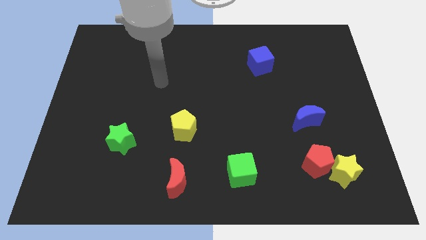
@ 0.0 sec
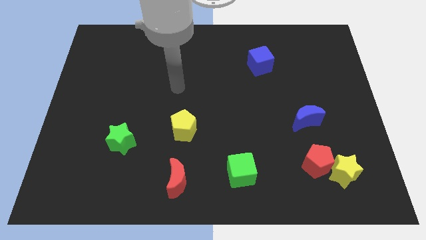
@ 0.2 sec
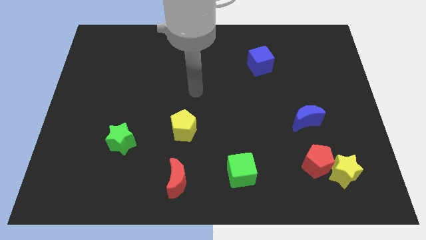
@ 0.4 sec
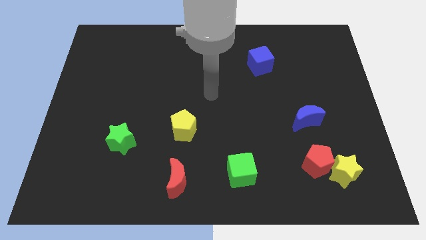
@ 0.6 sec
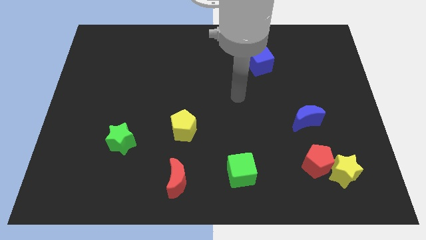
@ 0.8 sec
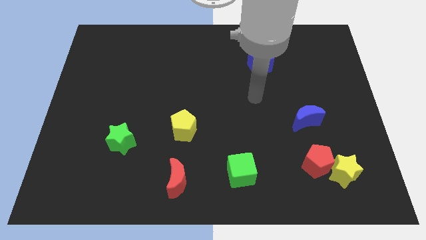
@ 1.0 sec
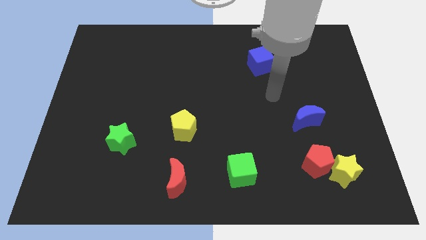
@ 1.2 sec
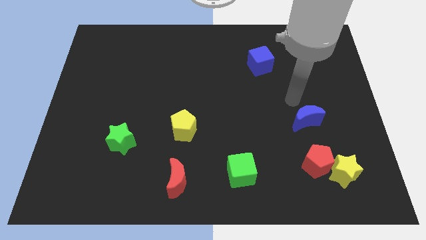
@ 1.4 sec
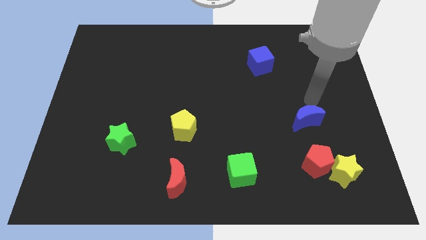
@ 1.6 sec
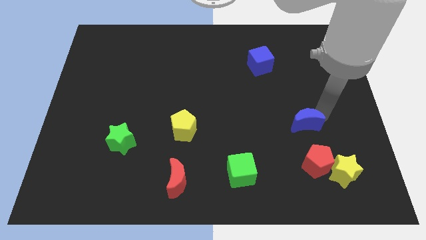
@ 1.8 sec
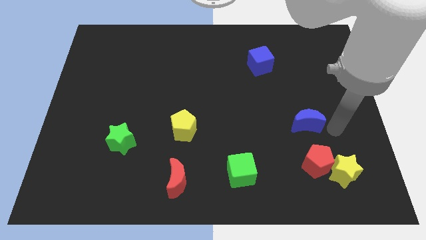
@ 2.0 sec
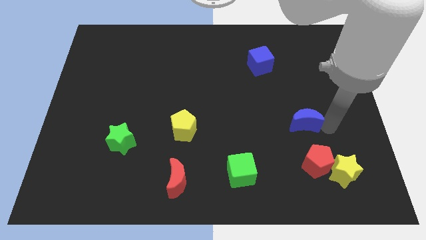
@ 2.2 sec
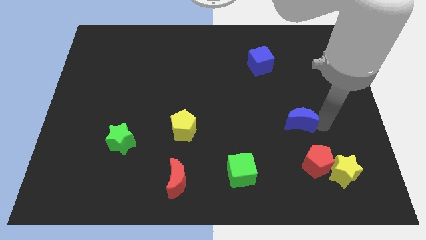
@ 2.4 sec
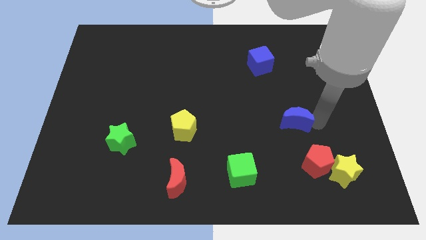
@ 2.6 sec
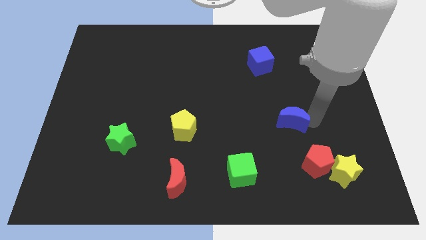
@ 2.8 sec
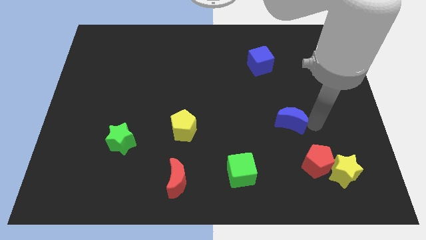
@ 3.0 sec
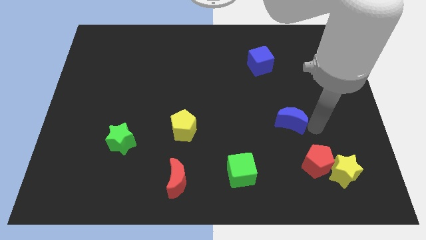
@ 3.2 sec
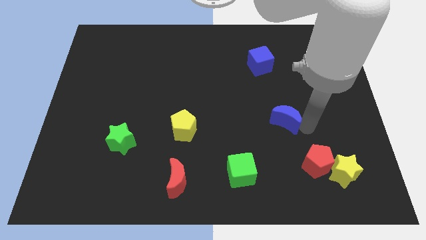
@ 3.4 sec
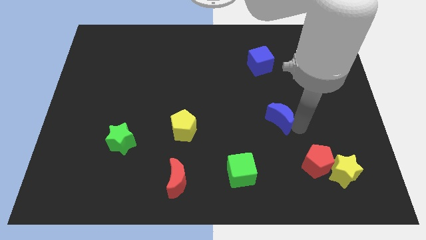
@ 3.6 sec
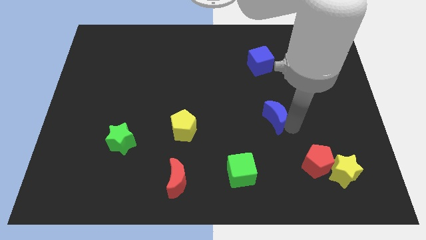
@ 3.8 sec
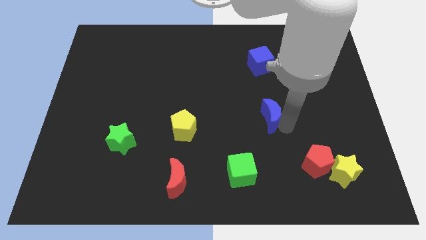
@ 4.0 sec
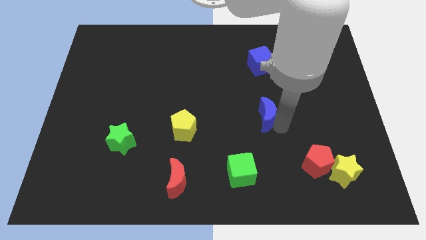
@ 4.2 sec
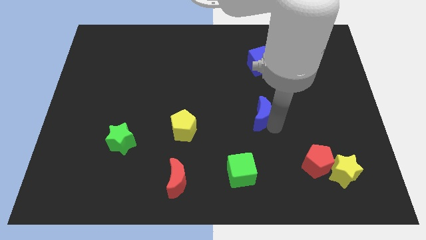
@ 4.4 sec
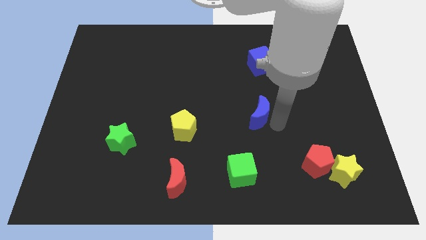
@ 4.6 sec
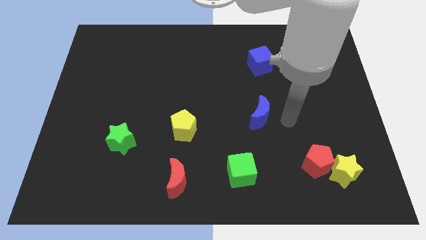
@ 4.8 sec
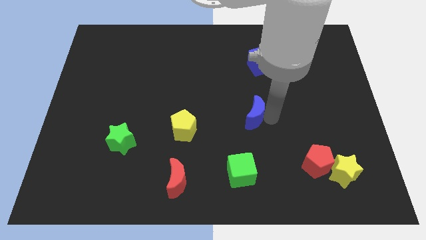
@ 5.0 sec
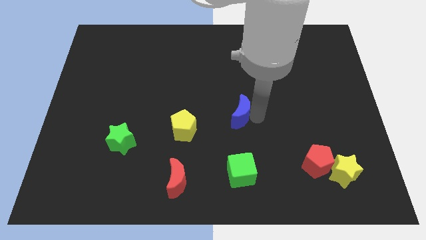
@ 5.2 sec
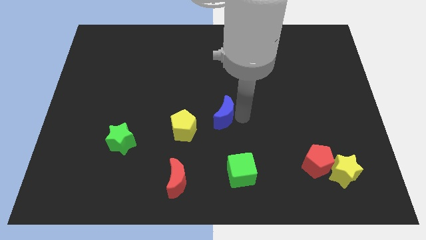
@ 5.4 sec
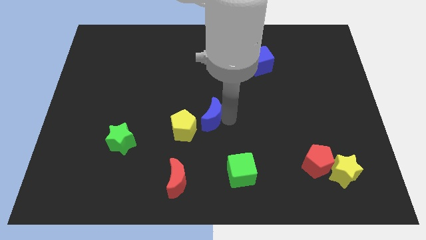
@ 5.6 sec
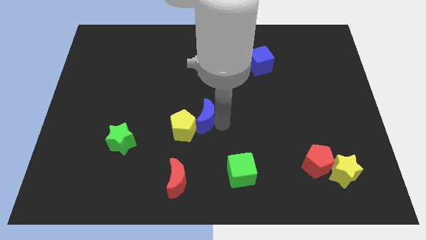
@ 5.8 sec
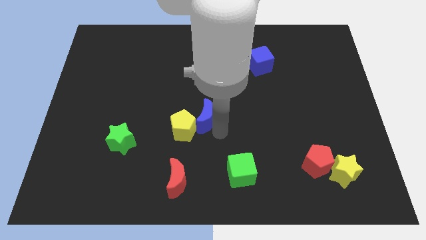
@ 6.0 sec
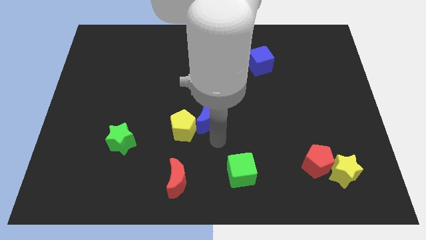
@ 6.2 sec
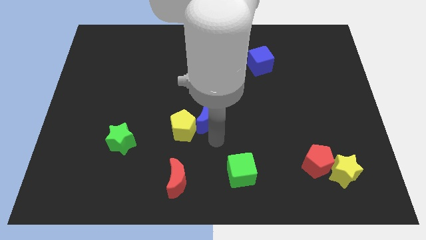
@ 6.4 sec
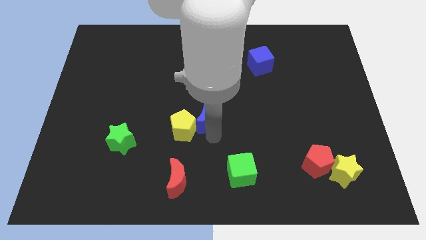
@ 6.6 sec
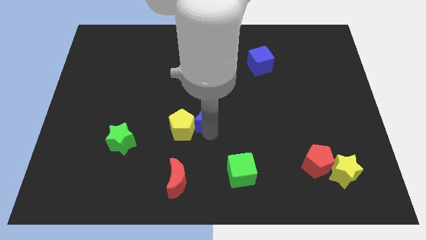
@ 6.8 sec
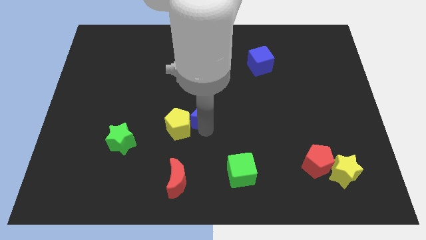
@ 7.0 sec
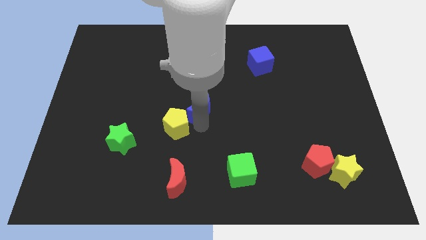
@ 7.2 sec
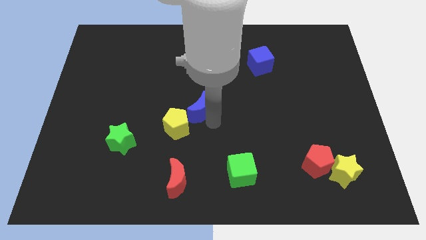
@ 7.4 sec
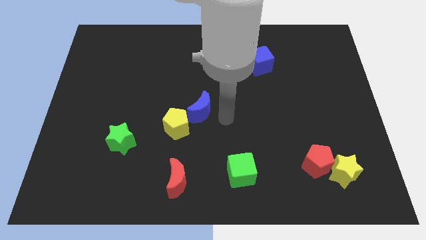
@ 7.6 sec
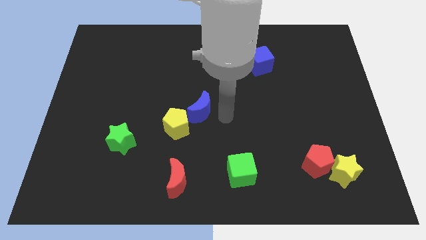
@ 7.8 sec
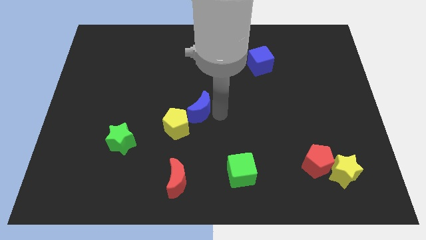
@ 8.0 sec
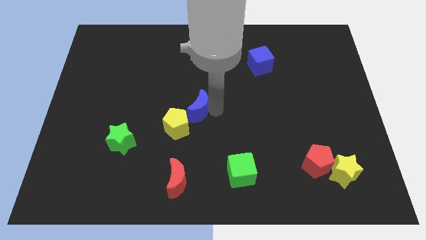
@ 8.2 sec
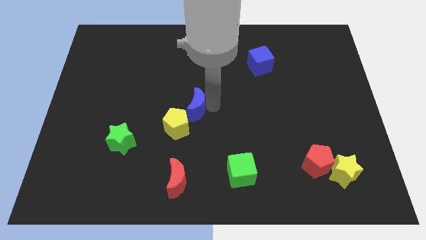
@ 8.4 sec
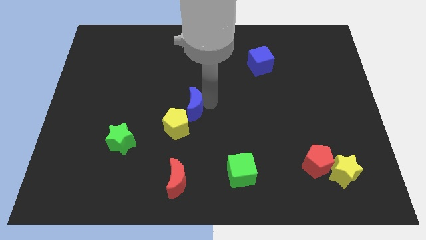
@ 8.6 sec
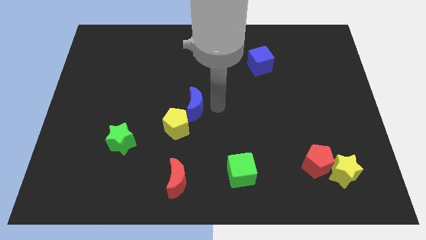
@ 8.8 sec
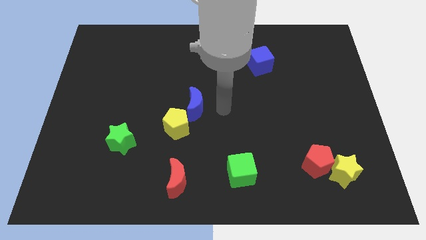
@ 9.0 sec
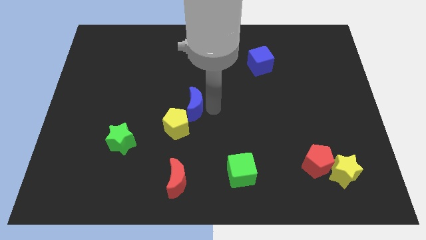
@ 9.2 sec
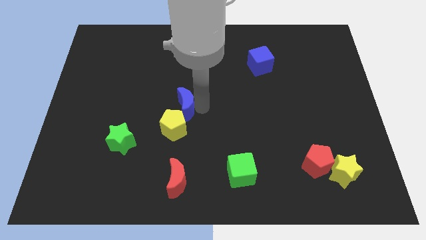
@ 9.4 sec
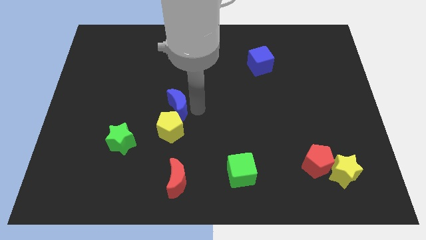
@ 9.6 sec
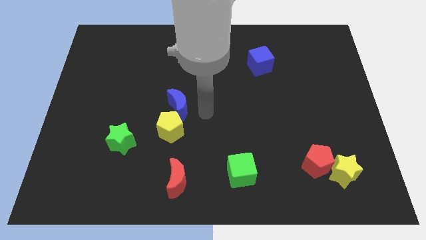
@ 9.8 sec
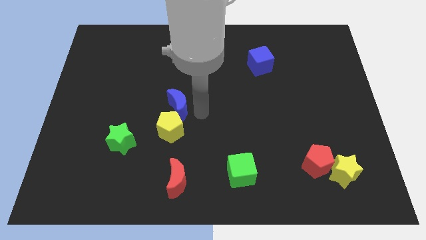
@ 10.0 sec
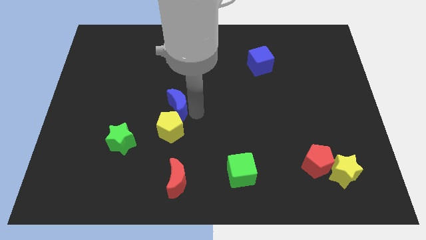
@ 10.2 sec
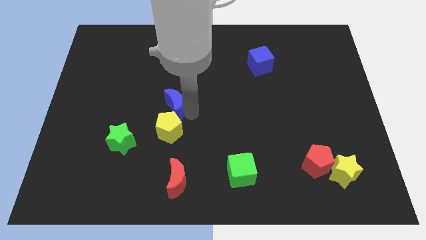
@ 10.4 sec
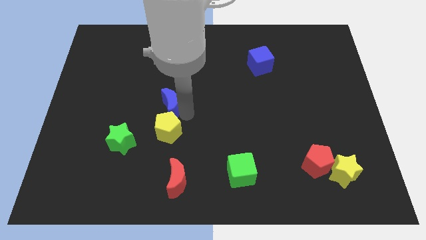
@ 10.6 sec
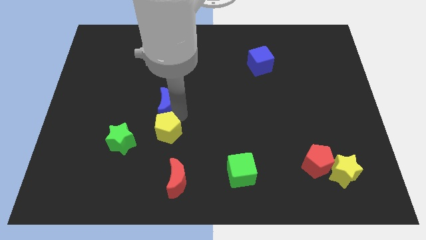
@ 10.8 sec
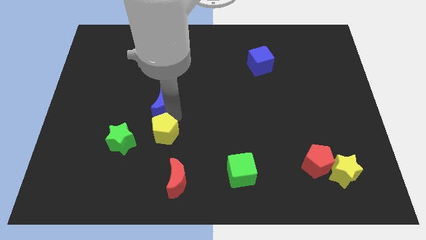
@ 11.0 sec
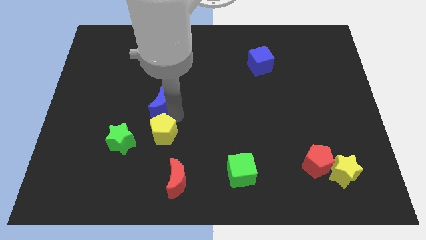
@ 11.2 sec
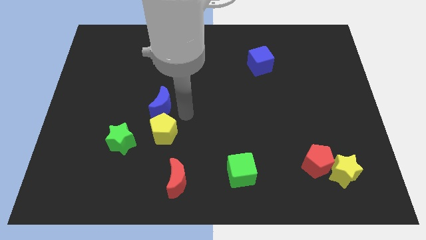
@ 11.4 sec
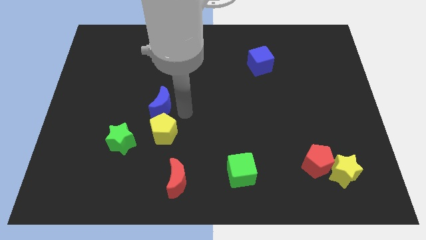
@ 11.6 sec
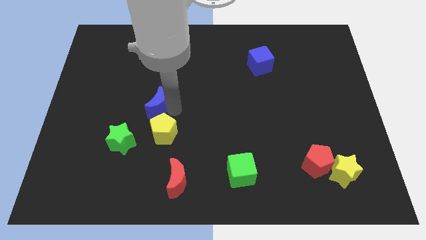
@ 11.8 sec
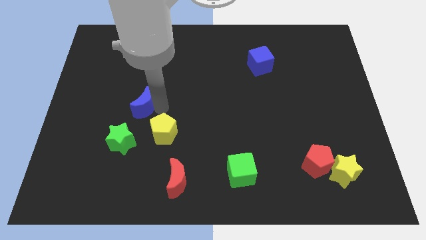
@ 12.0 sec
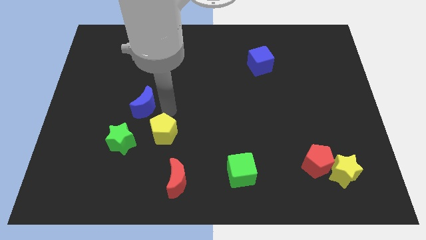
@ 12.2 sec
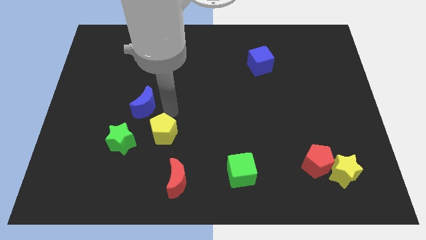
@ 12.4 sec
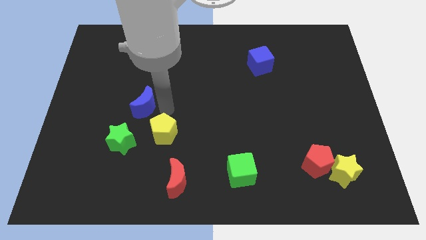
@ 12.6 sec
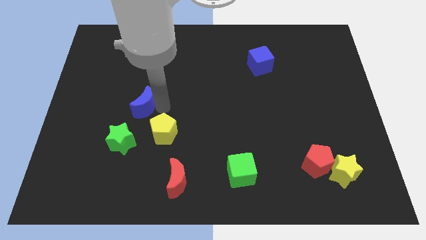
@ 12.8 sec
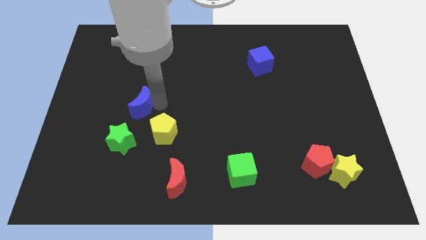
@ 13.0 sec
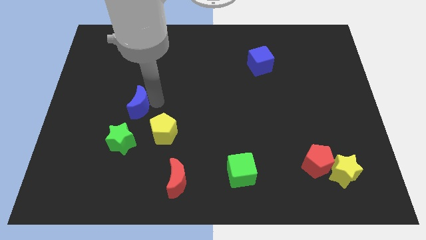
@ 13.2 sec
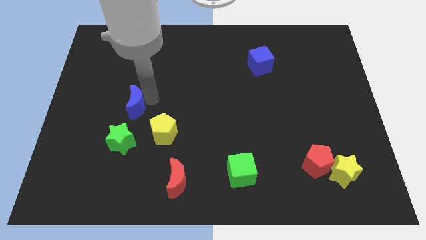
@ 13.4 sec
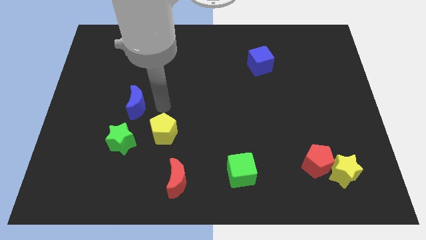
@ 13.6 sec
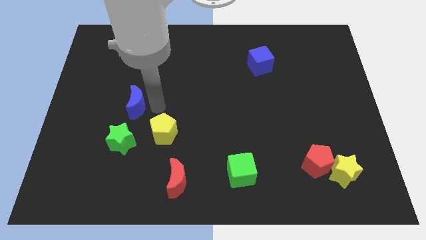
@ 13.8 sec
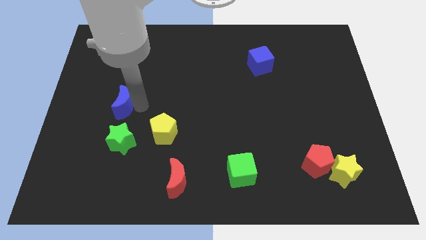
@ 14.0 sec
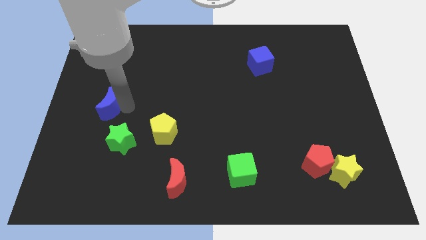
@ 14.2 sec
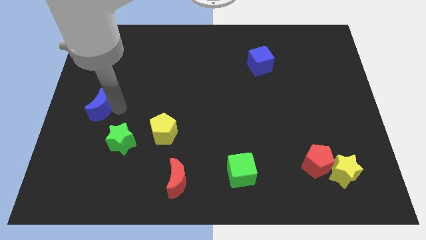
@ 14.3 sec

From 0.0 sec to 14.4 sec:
move the blue moon to the left side
